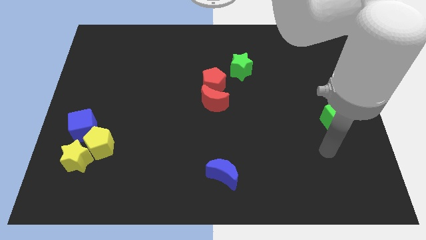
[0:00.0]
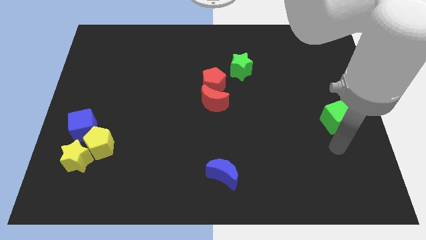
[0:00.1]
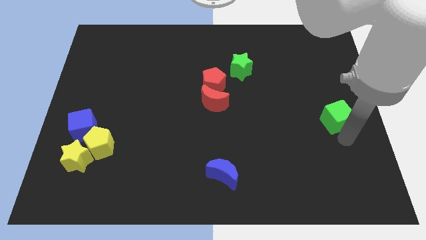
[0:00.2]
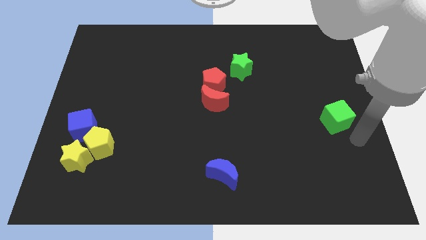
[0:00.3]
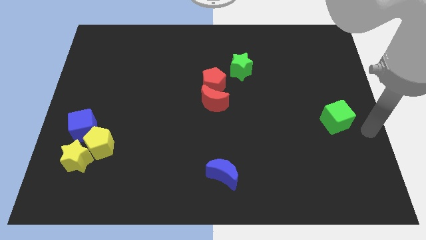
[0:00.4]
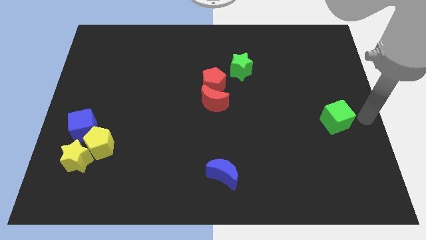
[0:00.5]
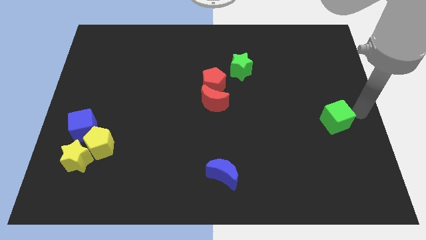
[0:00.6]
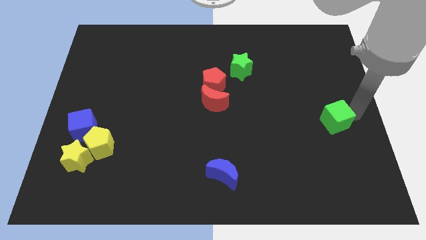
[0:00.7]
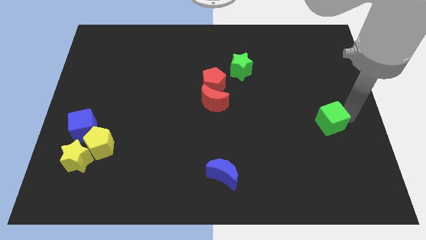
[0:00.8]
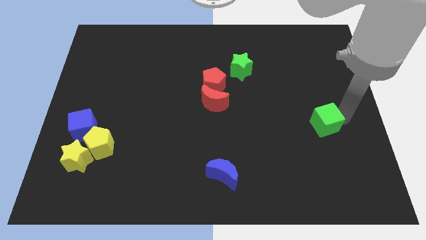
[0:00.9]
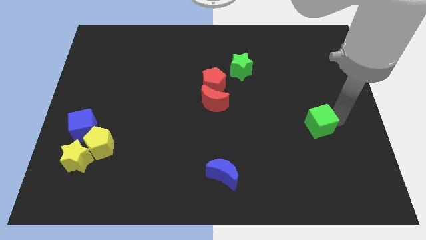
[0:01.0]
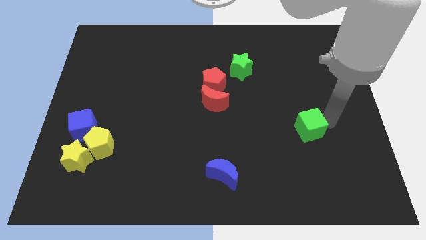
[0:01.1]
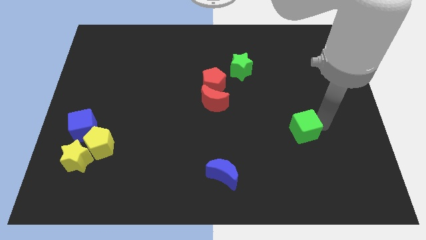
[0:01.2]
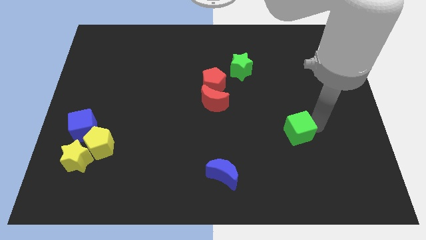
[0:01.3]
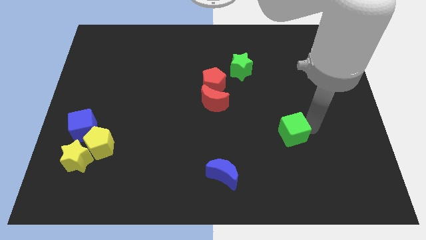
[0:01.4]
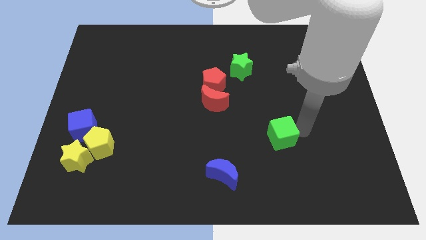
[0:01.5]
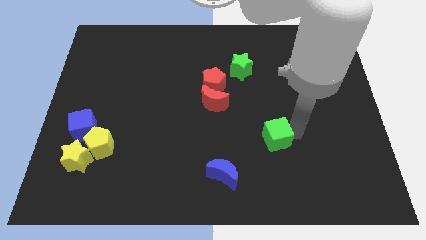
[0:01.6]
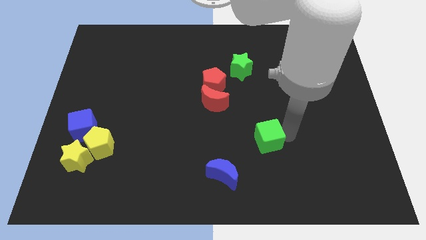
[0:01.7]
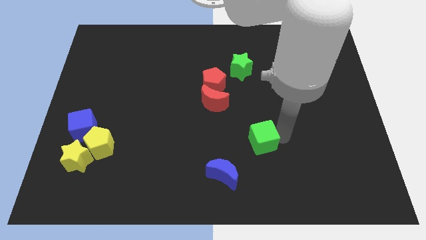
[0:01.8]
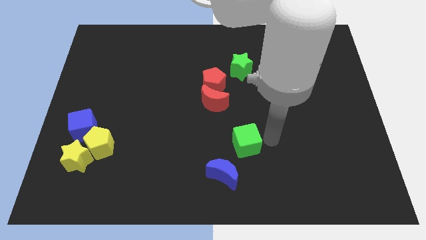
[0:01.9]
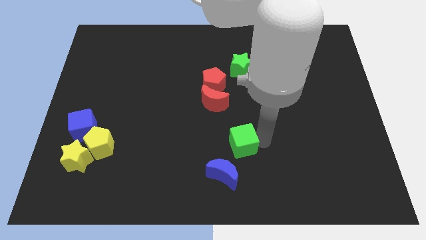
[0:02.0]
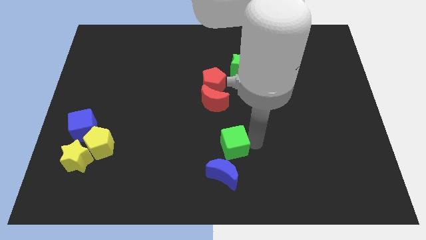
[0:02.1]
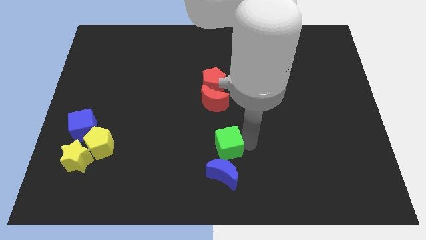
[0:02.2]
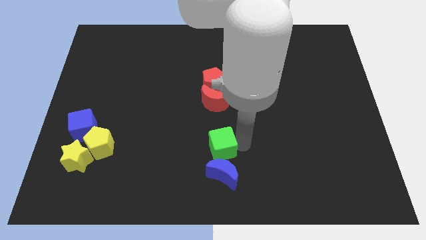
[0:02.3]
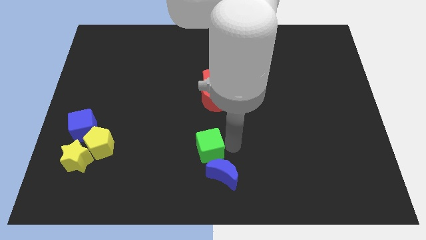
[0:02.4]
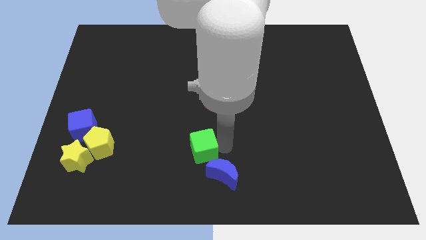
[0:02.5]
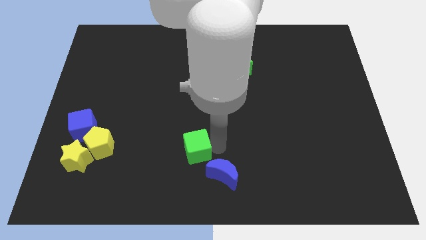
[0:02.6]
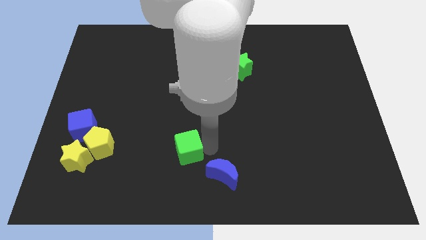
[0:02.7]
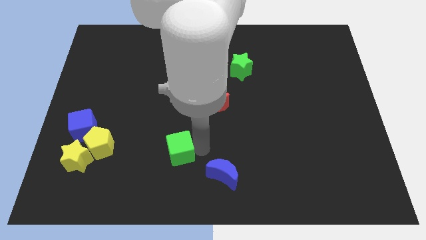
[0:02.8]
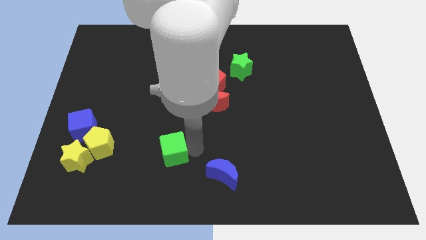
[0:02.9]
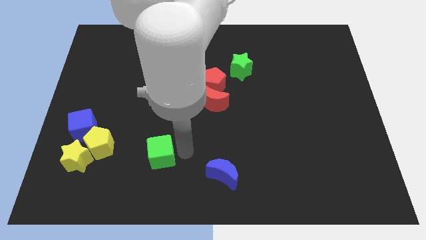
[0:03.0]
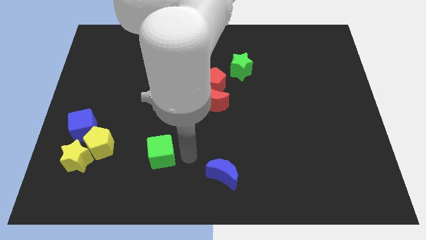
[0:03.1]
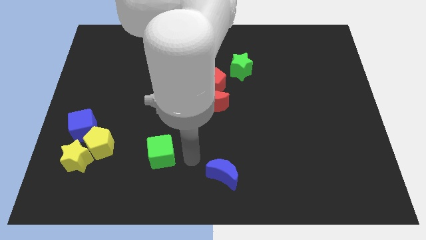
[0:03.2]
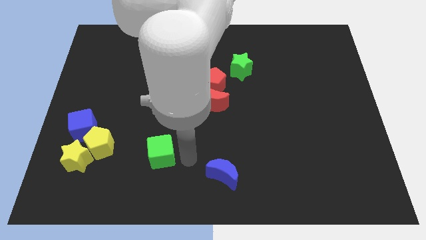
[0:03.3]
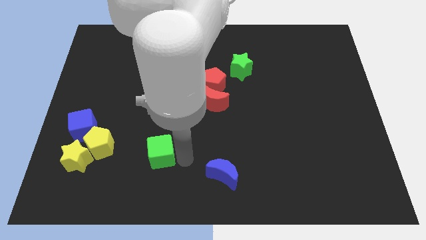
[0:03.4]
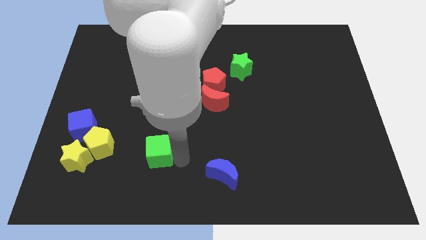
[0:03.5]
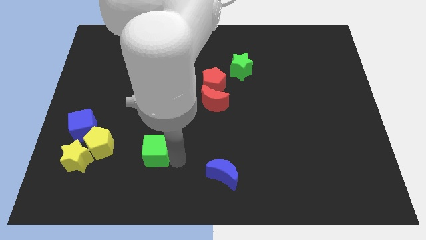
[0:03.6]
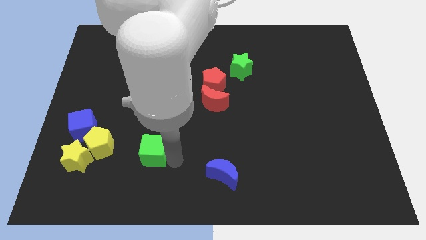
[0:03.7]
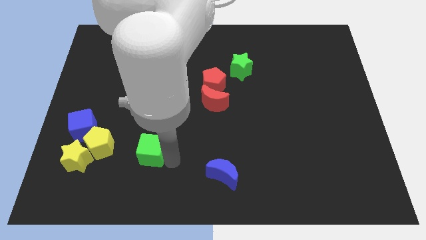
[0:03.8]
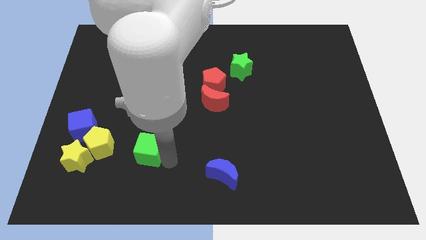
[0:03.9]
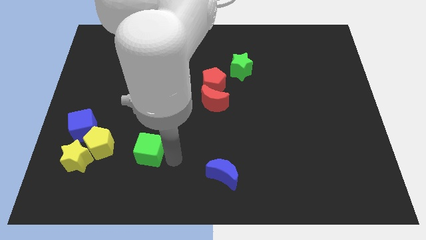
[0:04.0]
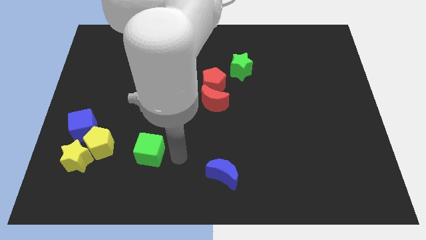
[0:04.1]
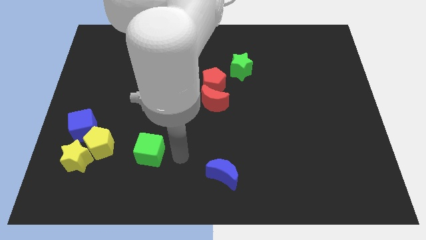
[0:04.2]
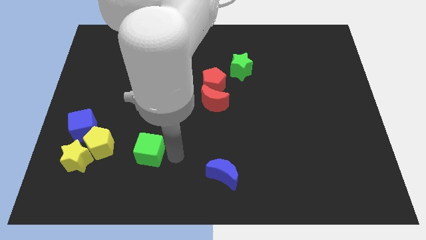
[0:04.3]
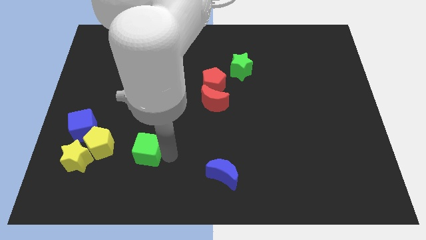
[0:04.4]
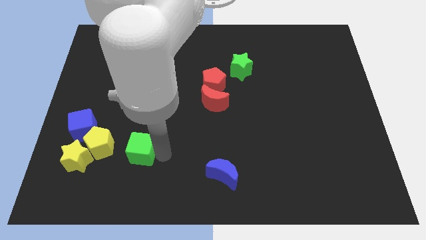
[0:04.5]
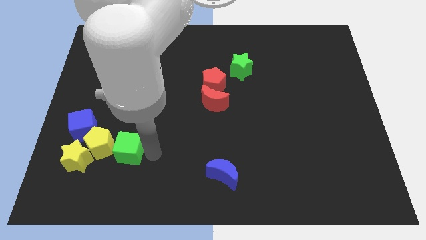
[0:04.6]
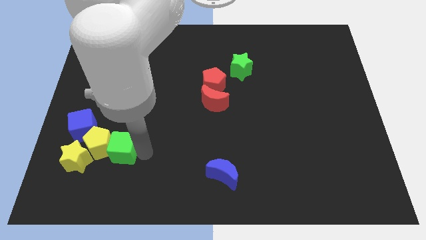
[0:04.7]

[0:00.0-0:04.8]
move the green cube next to the yellow pentagon

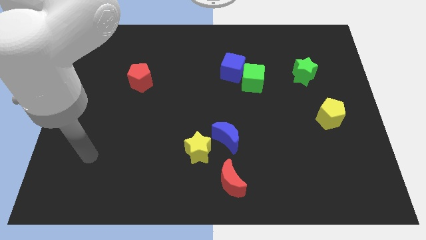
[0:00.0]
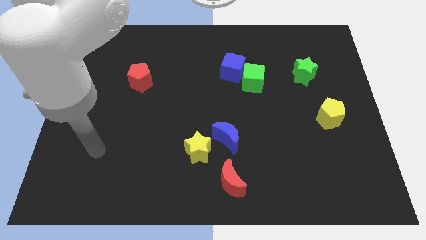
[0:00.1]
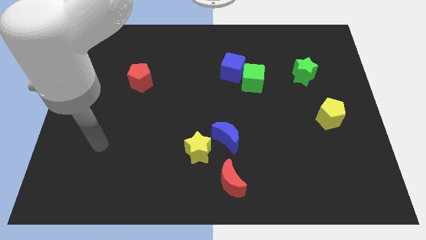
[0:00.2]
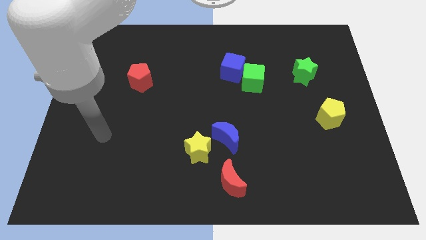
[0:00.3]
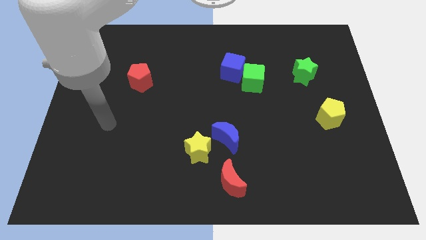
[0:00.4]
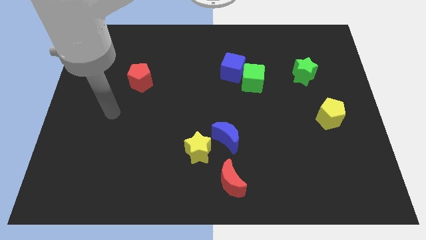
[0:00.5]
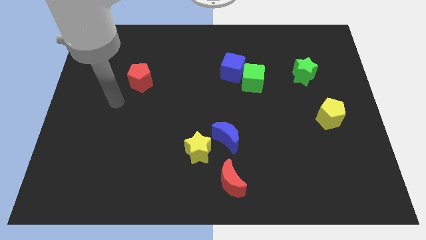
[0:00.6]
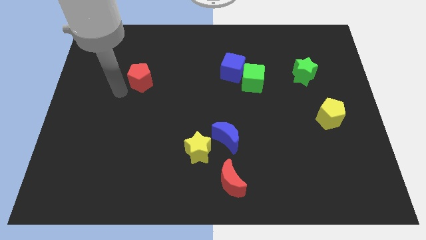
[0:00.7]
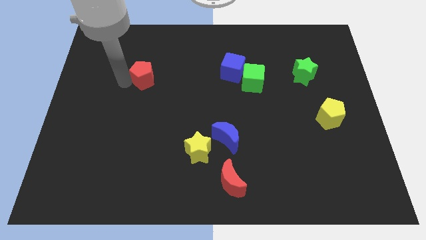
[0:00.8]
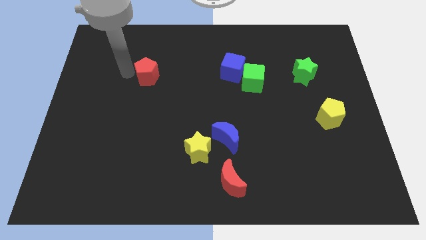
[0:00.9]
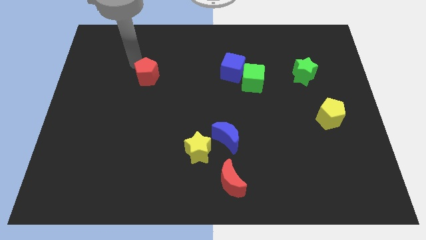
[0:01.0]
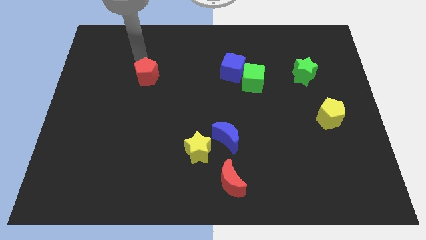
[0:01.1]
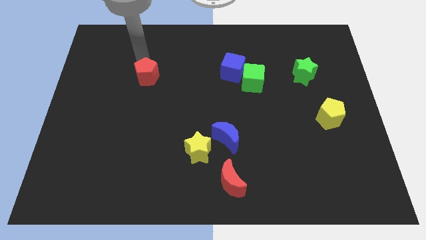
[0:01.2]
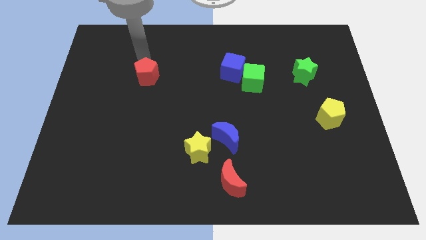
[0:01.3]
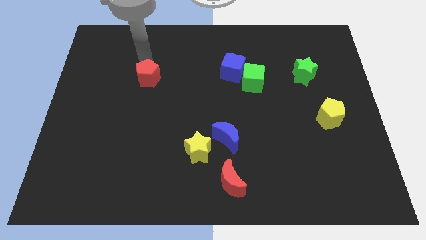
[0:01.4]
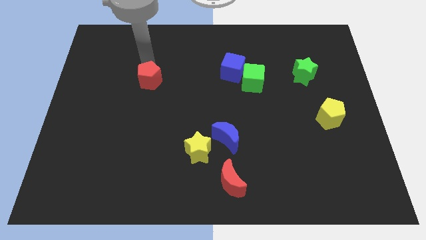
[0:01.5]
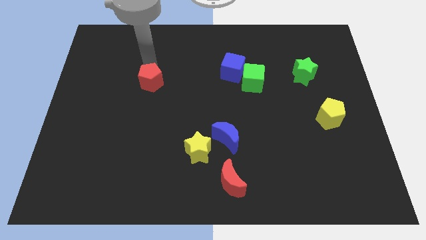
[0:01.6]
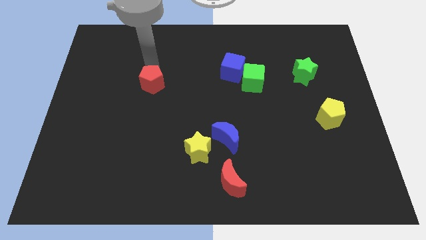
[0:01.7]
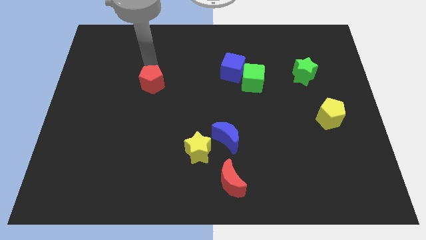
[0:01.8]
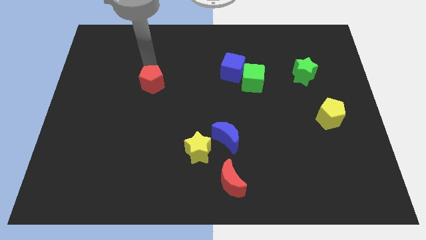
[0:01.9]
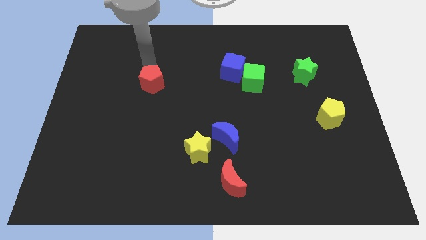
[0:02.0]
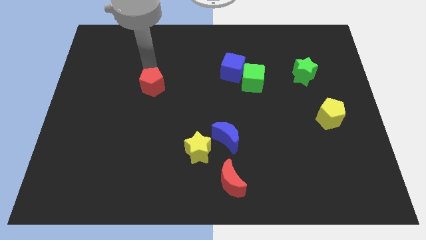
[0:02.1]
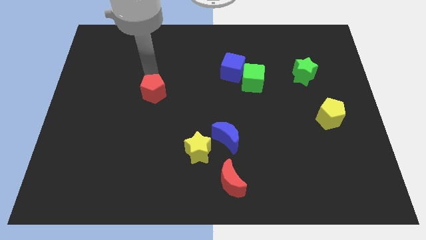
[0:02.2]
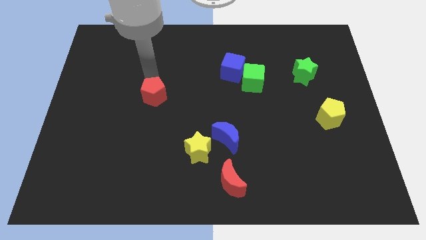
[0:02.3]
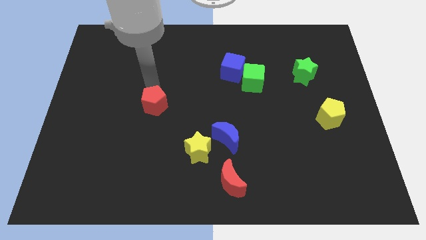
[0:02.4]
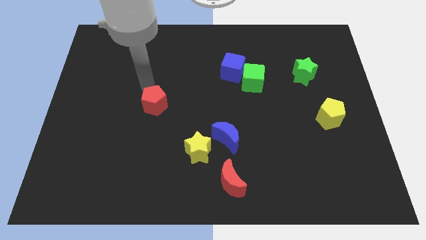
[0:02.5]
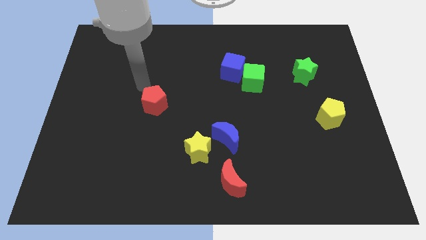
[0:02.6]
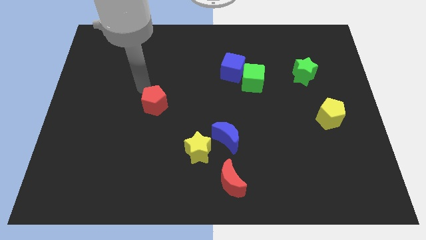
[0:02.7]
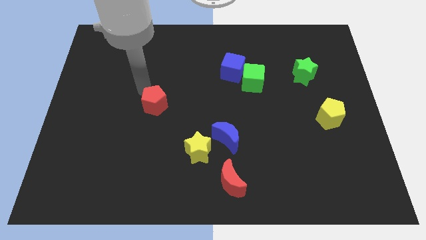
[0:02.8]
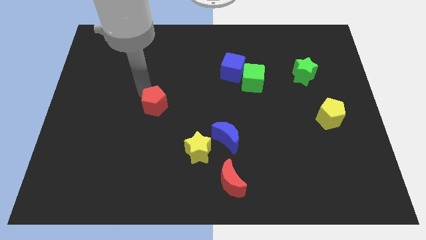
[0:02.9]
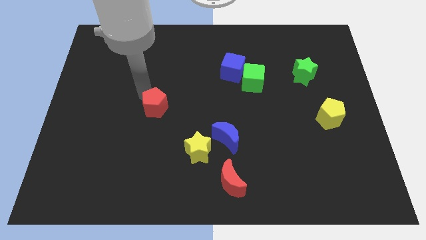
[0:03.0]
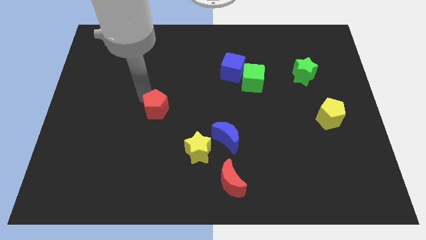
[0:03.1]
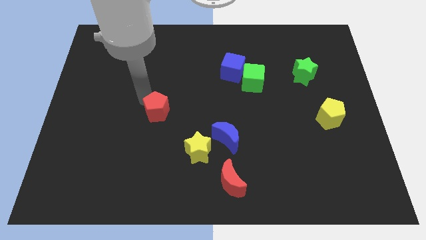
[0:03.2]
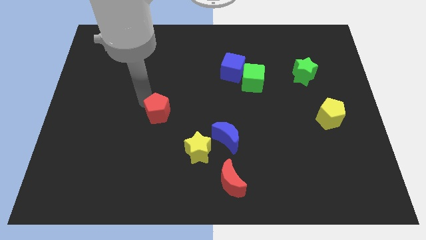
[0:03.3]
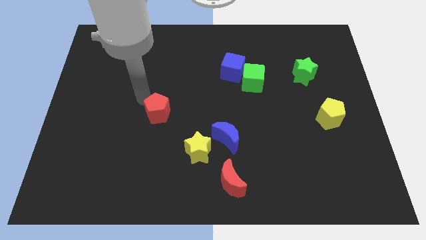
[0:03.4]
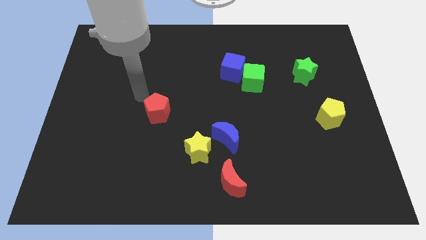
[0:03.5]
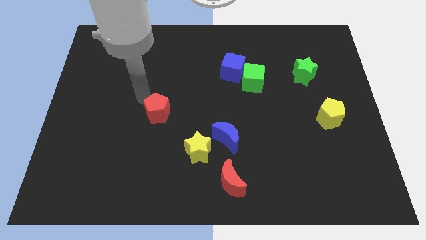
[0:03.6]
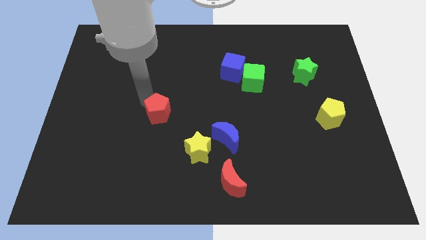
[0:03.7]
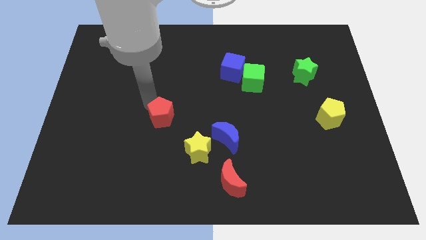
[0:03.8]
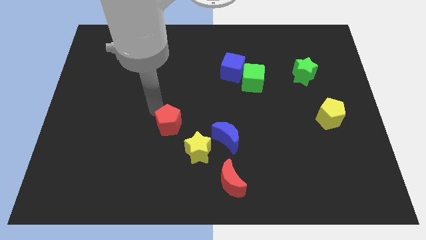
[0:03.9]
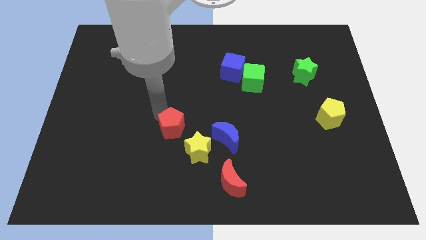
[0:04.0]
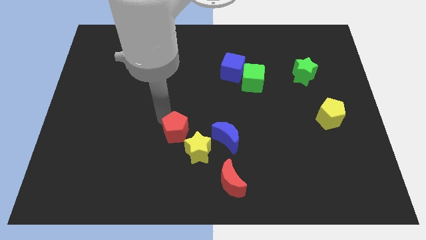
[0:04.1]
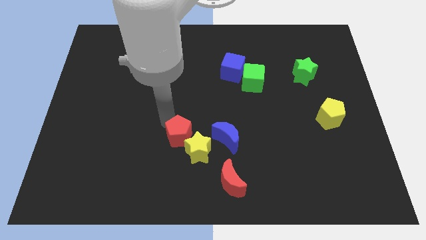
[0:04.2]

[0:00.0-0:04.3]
put the red pentagon close to the yellow star
